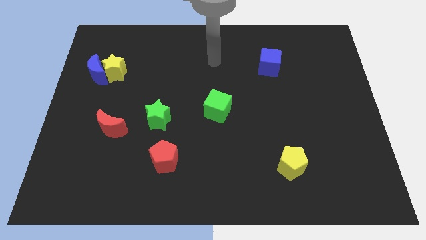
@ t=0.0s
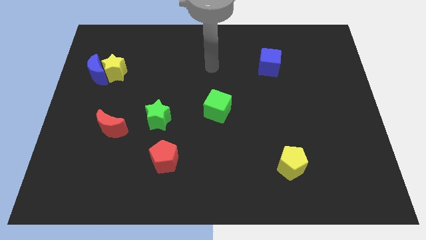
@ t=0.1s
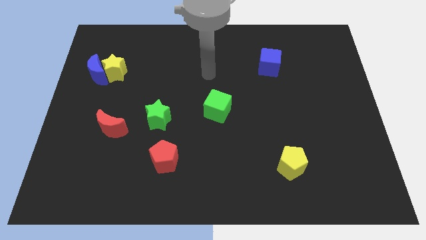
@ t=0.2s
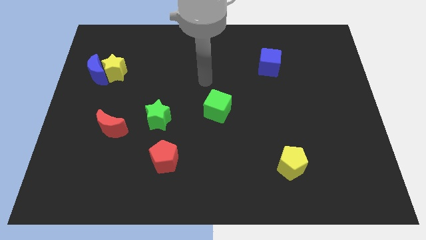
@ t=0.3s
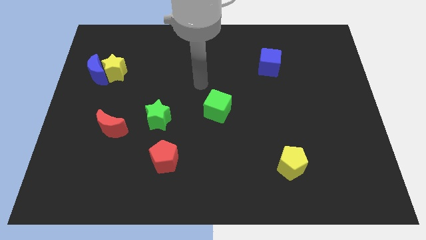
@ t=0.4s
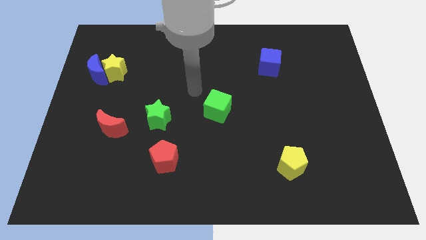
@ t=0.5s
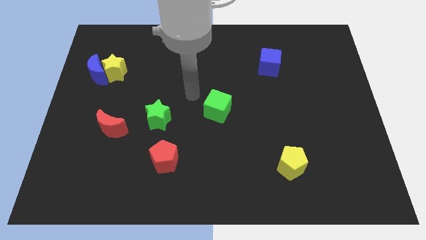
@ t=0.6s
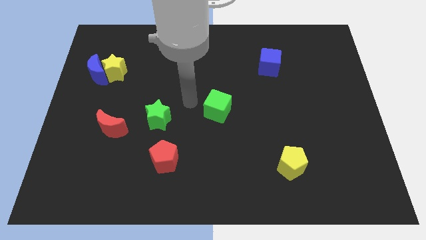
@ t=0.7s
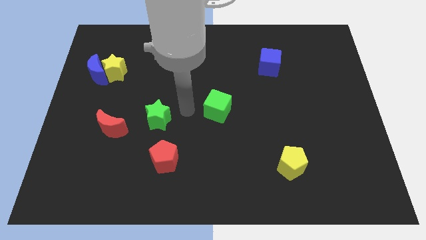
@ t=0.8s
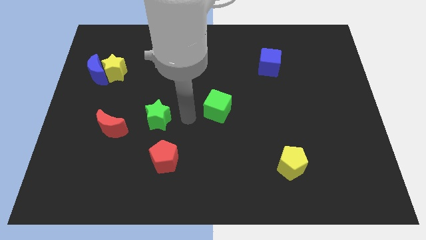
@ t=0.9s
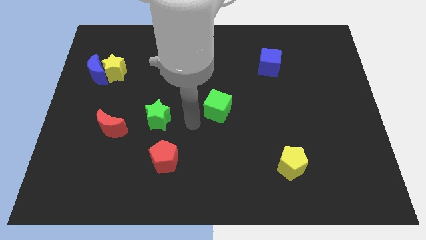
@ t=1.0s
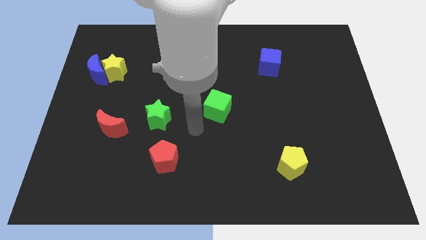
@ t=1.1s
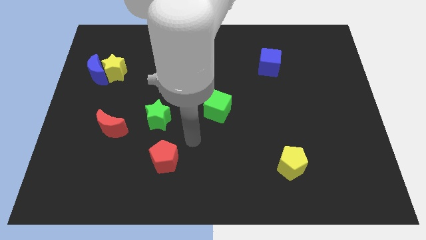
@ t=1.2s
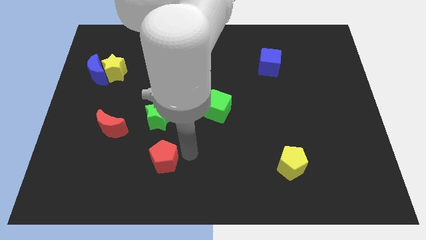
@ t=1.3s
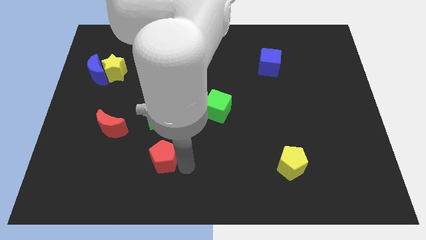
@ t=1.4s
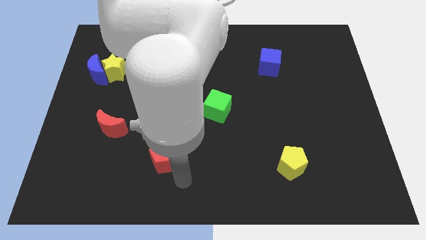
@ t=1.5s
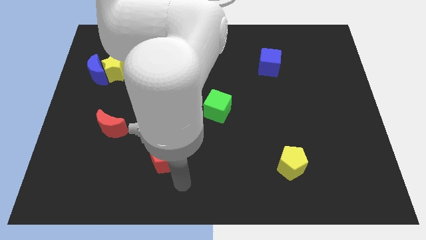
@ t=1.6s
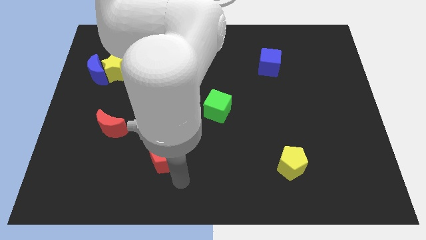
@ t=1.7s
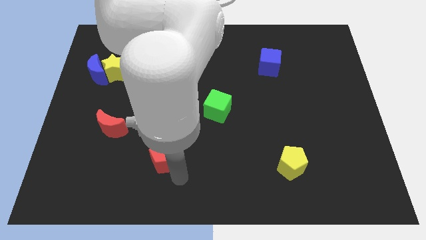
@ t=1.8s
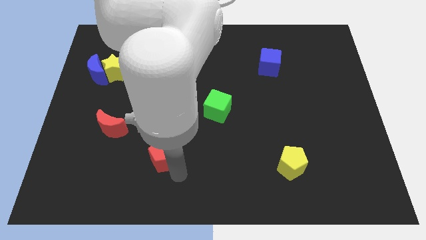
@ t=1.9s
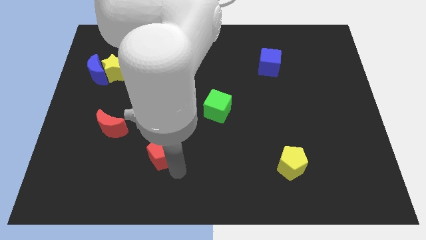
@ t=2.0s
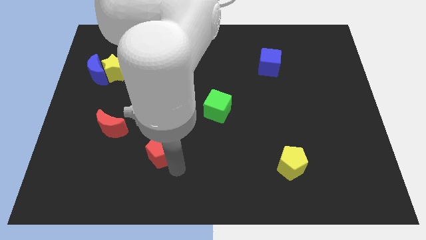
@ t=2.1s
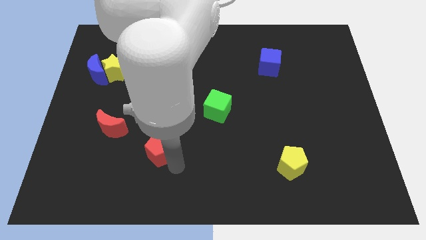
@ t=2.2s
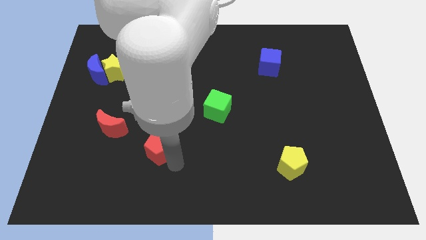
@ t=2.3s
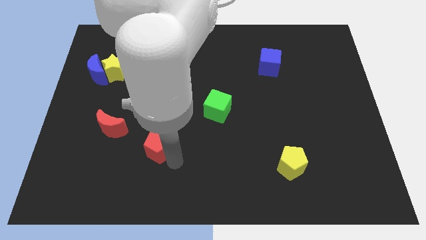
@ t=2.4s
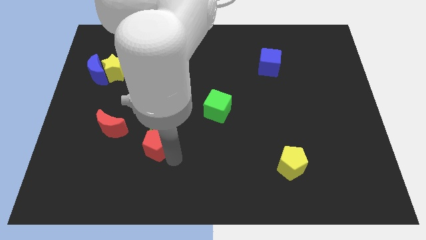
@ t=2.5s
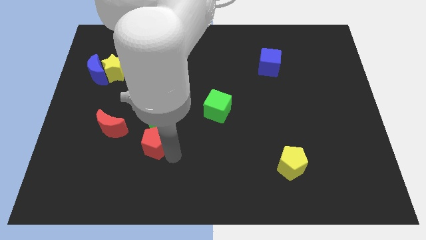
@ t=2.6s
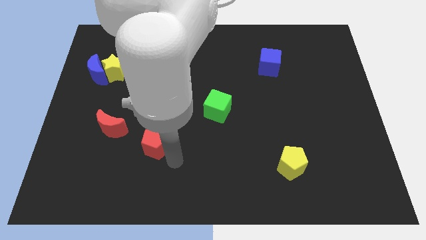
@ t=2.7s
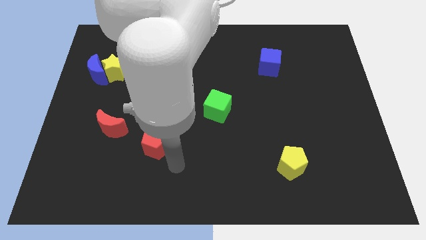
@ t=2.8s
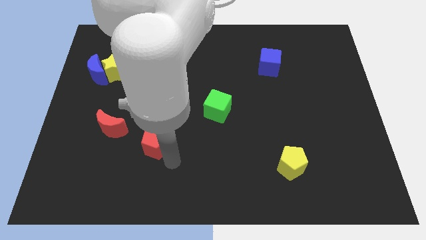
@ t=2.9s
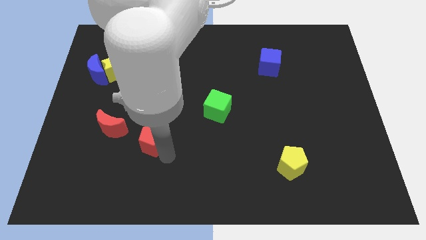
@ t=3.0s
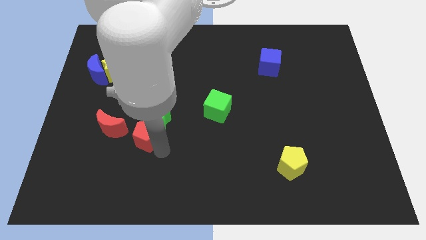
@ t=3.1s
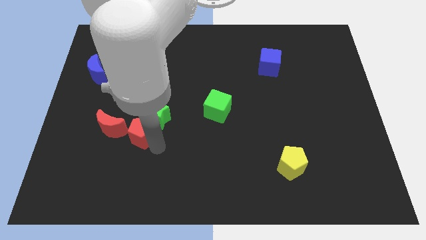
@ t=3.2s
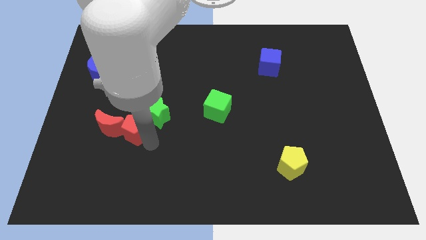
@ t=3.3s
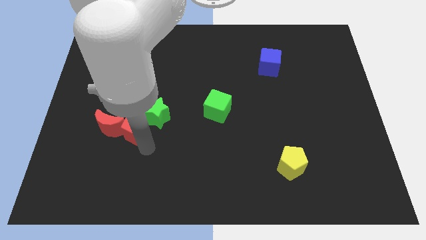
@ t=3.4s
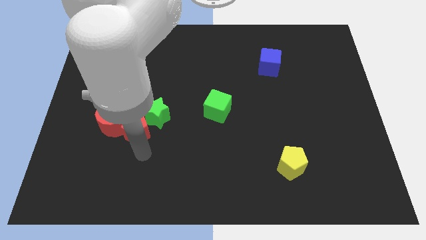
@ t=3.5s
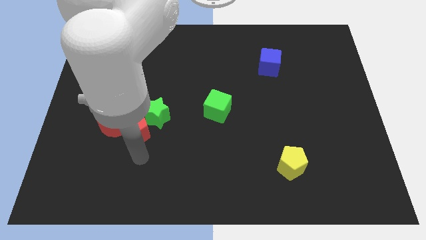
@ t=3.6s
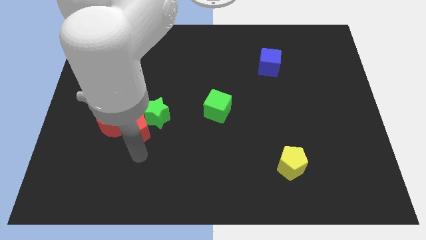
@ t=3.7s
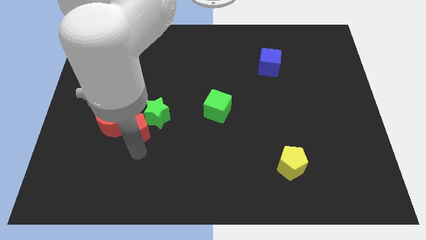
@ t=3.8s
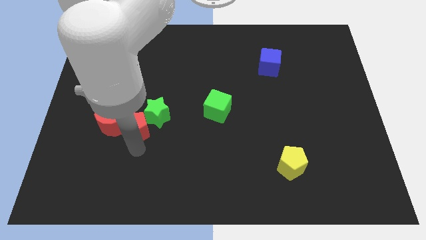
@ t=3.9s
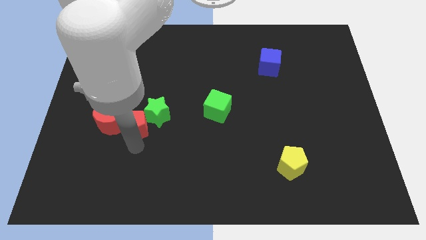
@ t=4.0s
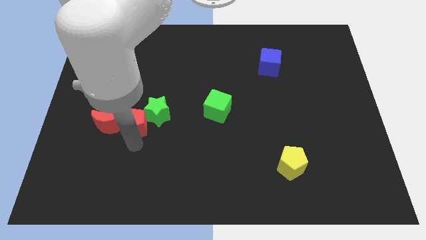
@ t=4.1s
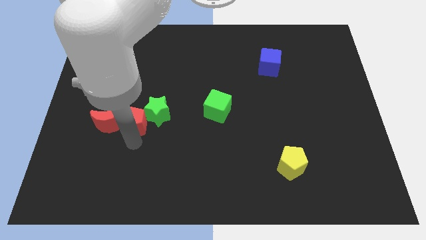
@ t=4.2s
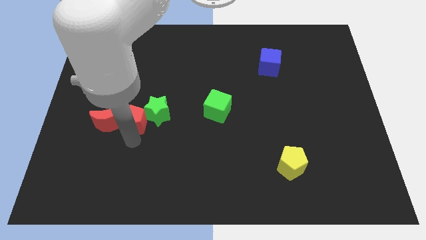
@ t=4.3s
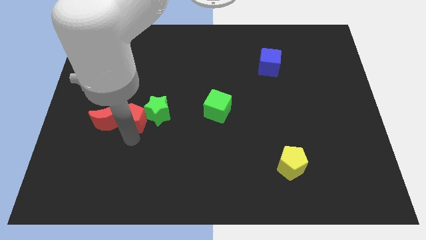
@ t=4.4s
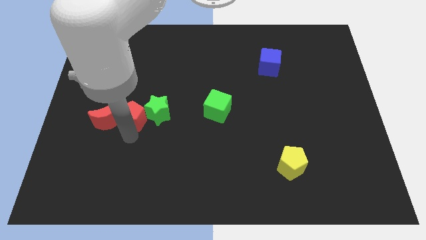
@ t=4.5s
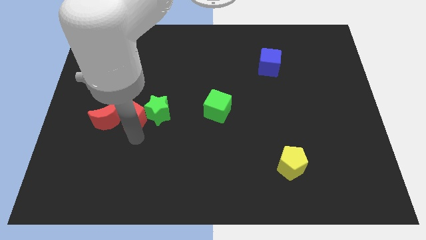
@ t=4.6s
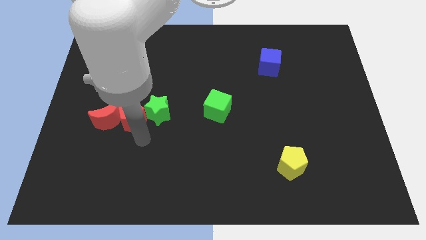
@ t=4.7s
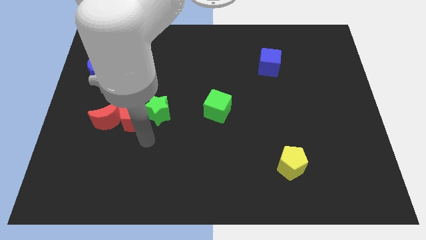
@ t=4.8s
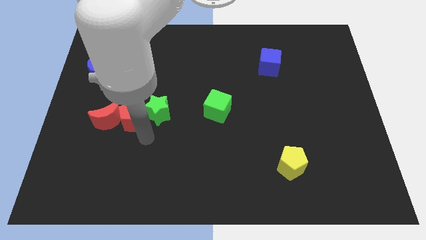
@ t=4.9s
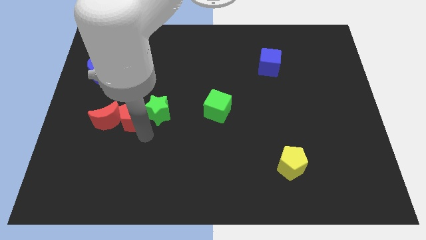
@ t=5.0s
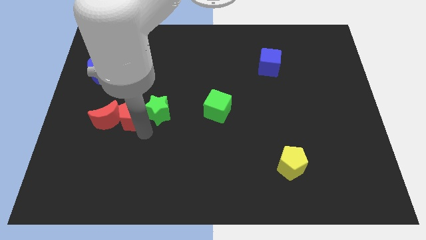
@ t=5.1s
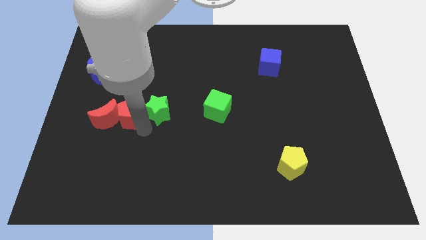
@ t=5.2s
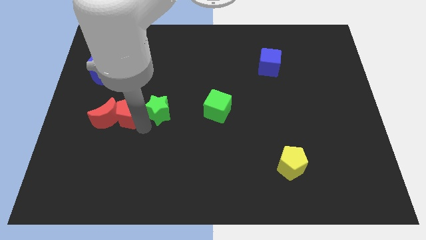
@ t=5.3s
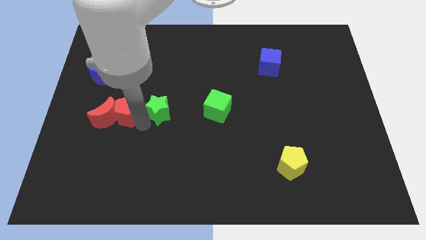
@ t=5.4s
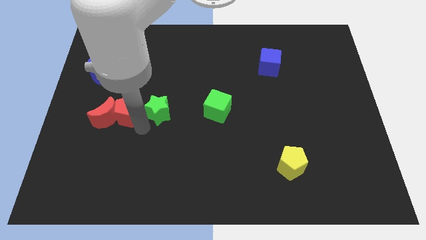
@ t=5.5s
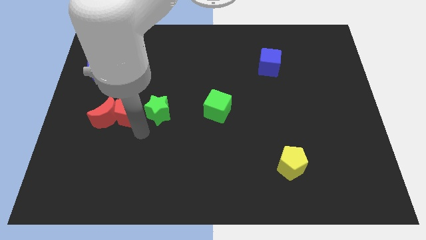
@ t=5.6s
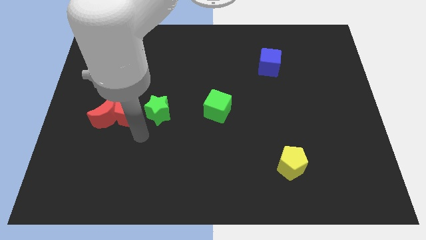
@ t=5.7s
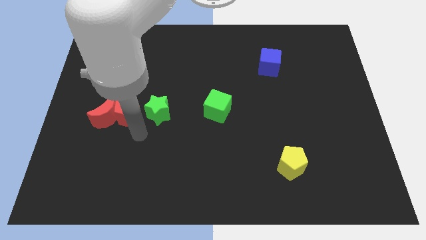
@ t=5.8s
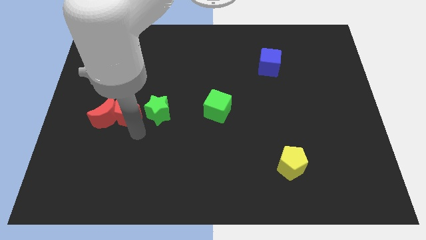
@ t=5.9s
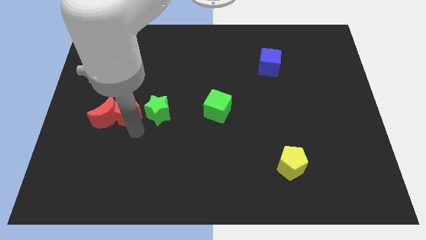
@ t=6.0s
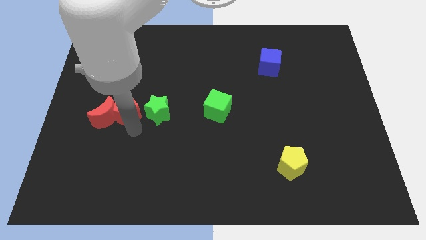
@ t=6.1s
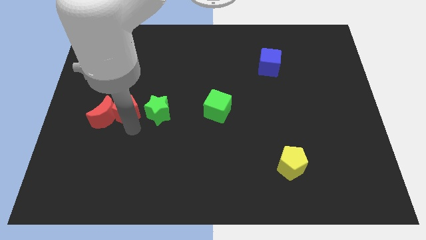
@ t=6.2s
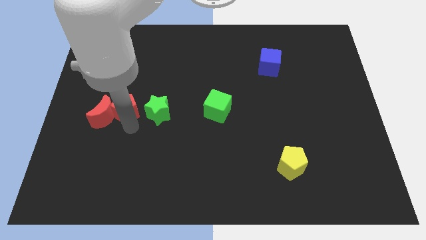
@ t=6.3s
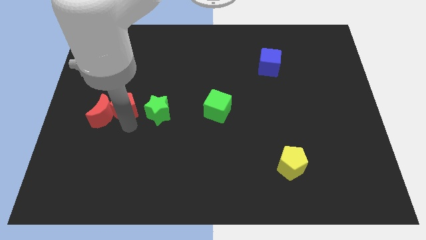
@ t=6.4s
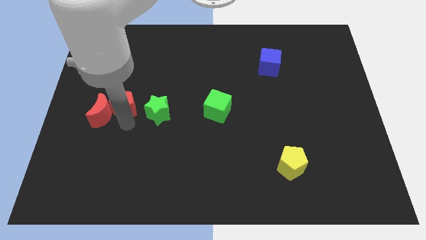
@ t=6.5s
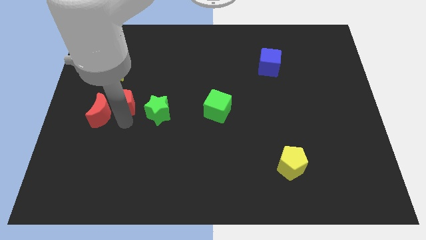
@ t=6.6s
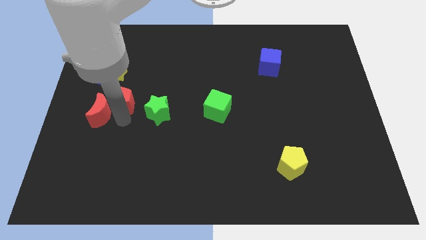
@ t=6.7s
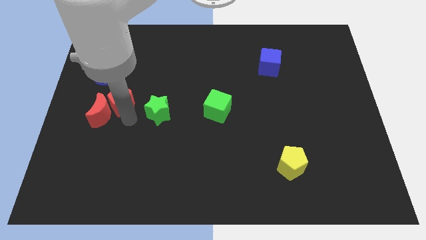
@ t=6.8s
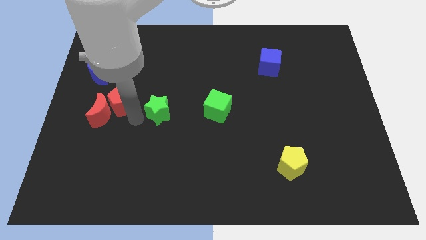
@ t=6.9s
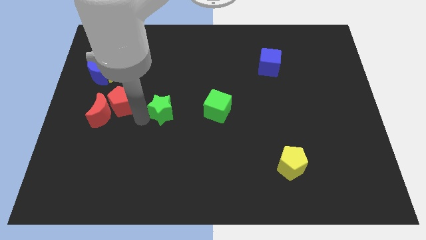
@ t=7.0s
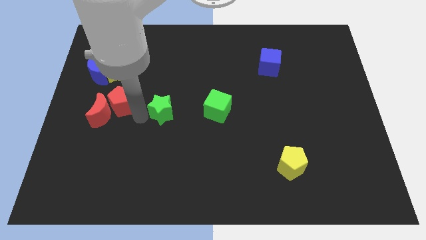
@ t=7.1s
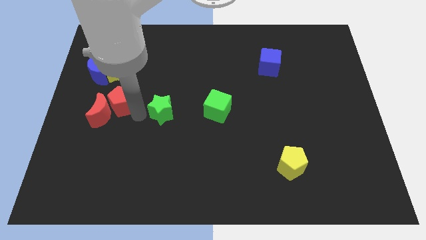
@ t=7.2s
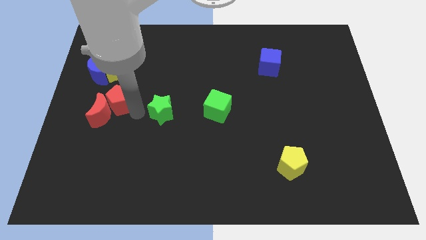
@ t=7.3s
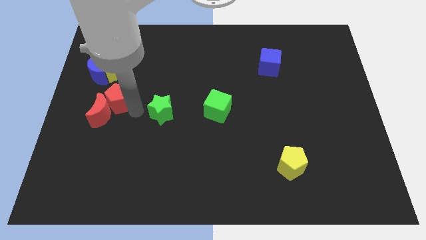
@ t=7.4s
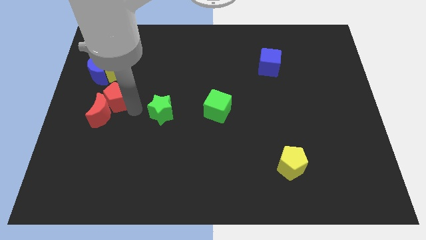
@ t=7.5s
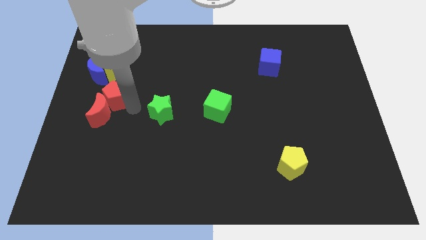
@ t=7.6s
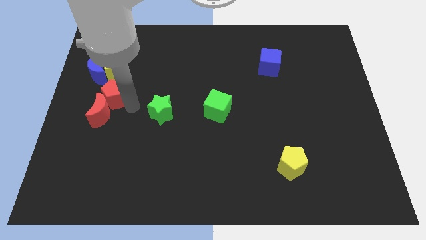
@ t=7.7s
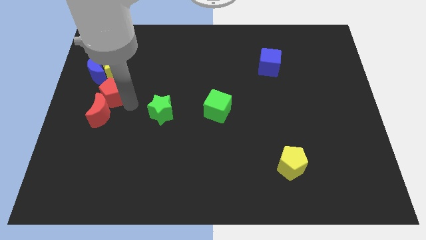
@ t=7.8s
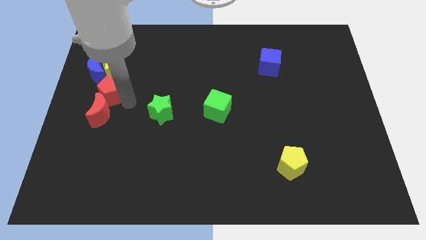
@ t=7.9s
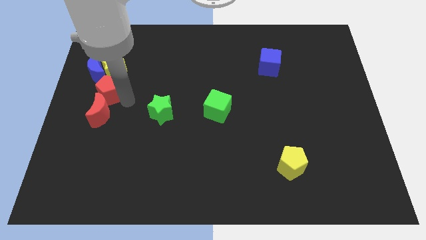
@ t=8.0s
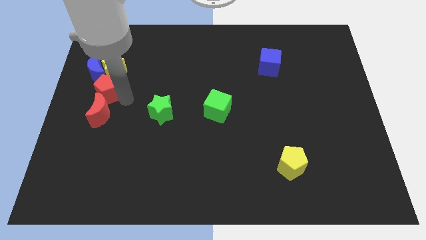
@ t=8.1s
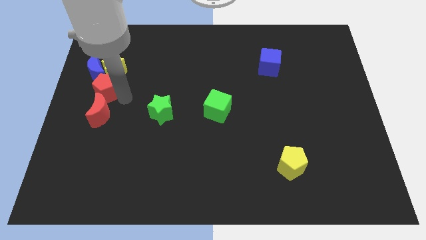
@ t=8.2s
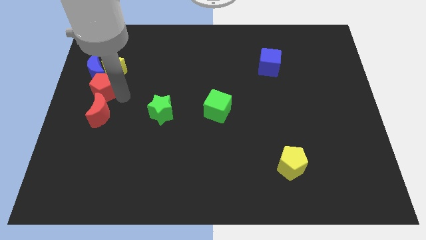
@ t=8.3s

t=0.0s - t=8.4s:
slide the red pentagon towards the blue moon
